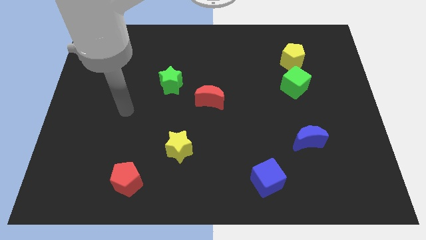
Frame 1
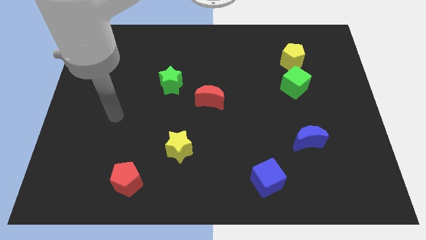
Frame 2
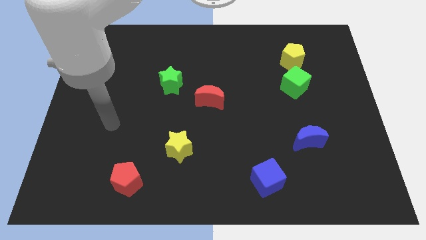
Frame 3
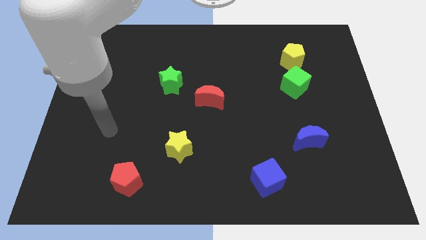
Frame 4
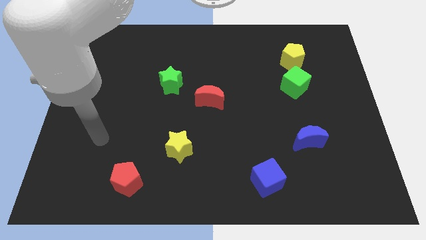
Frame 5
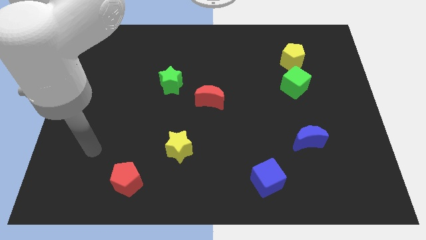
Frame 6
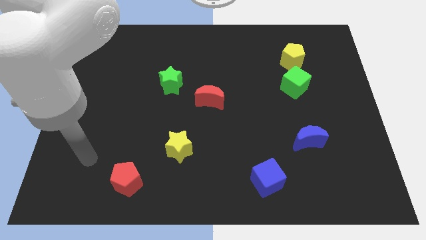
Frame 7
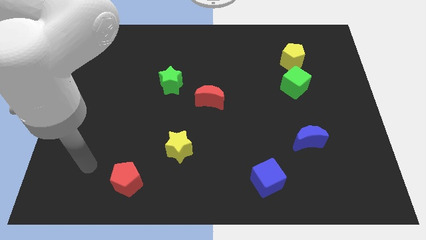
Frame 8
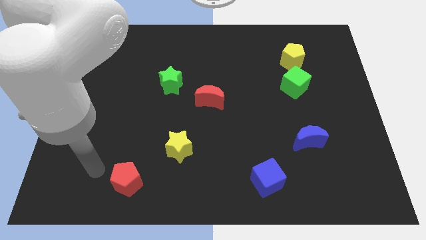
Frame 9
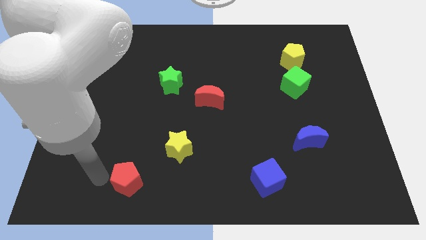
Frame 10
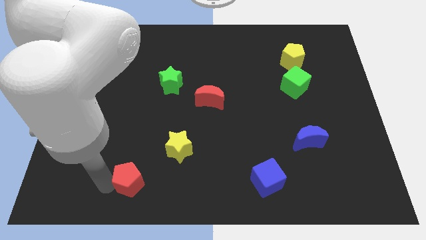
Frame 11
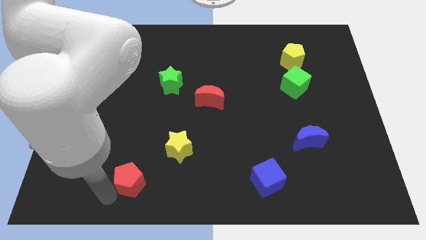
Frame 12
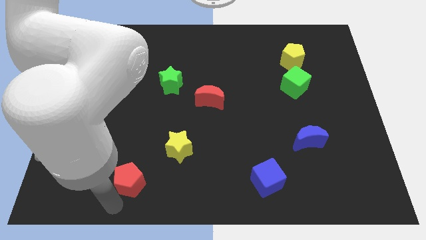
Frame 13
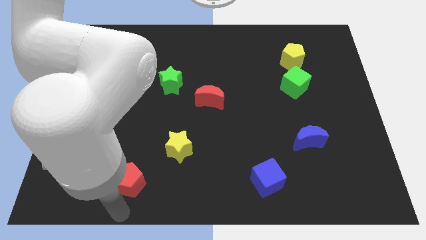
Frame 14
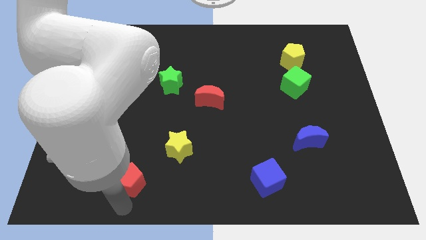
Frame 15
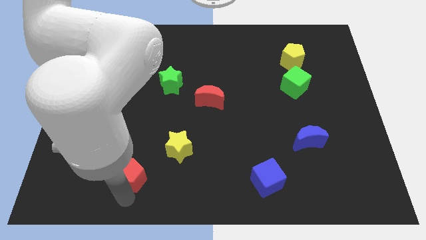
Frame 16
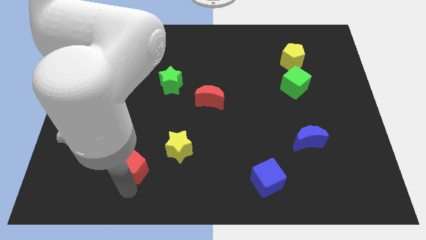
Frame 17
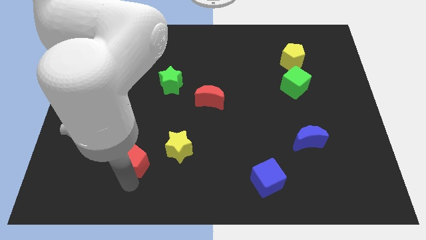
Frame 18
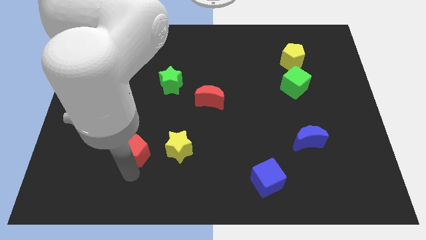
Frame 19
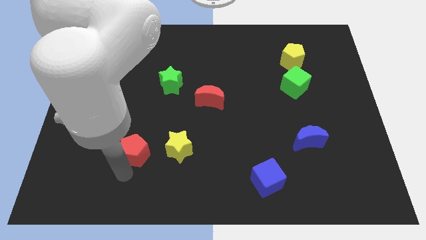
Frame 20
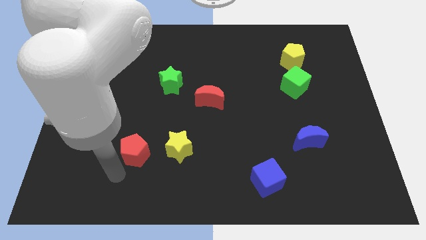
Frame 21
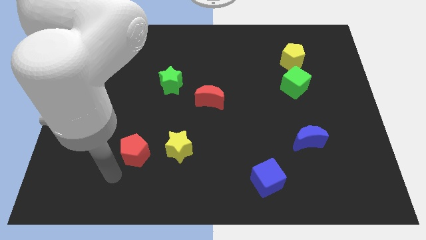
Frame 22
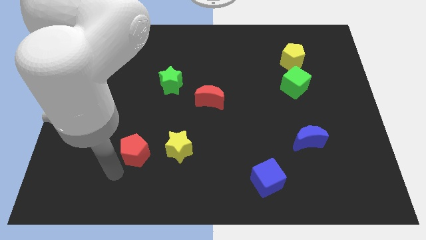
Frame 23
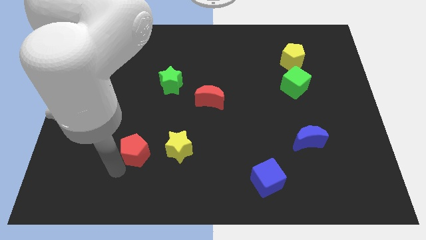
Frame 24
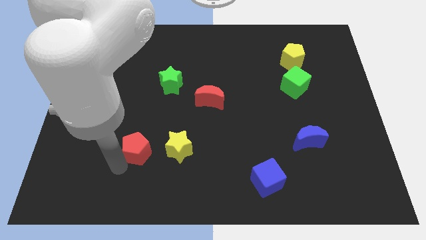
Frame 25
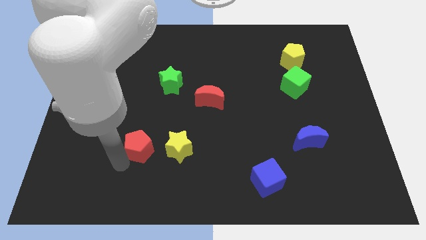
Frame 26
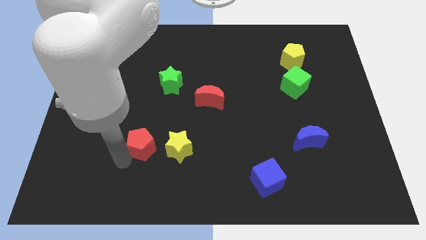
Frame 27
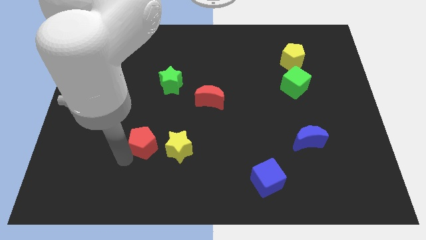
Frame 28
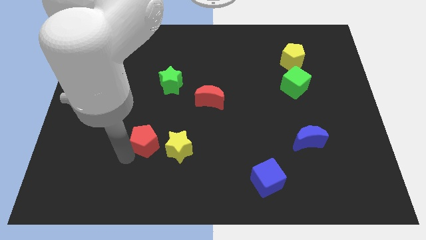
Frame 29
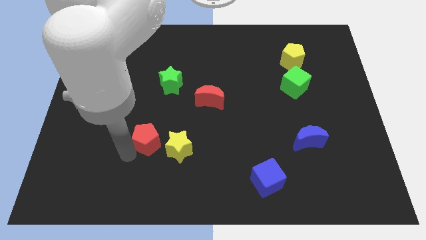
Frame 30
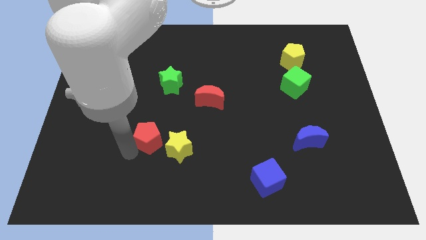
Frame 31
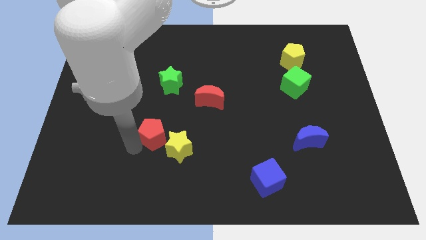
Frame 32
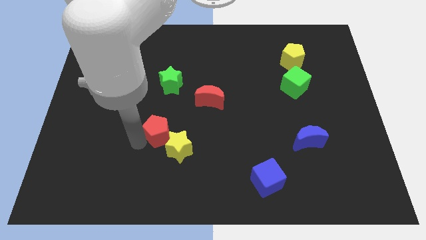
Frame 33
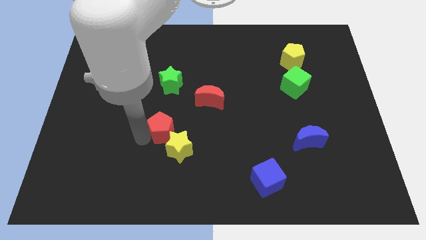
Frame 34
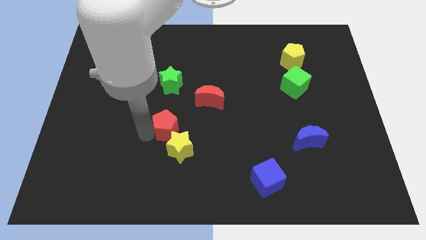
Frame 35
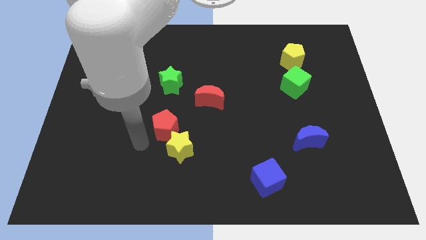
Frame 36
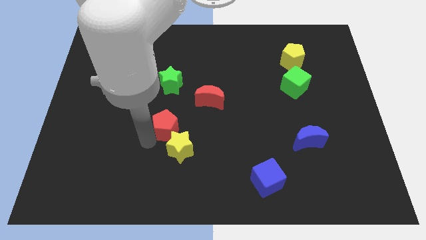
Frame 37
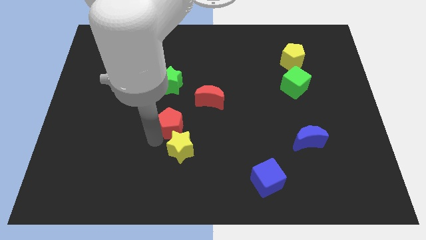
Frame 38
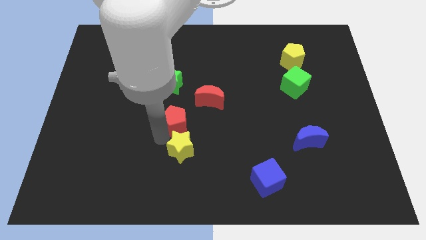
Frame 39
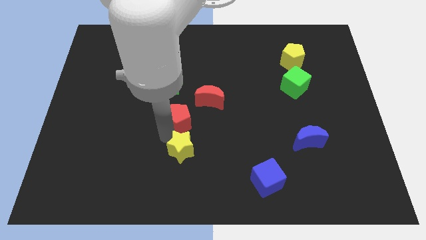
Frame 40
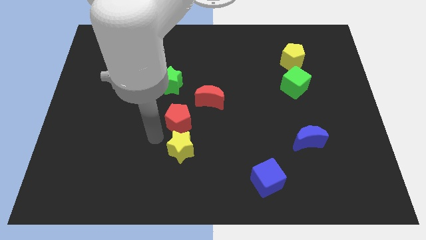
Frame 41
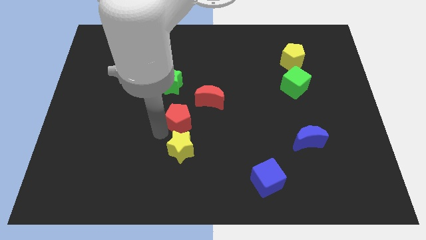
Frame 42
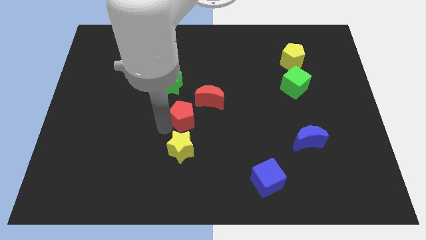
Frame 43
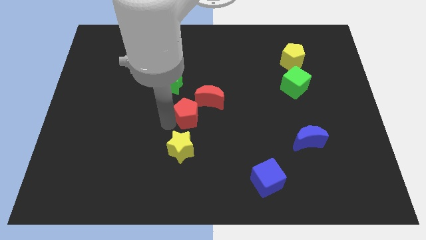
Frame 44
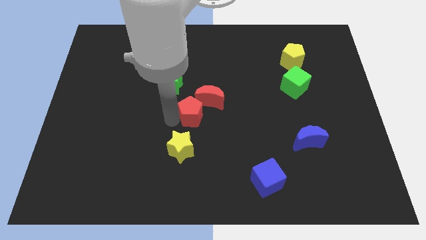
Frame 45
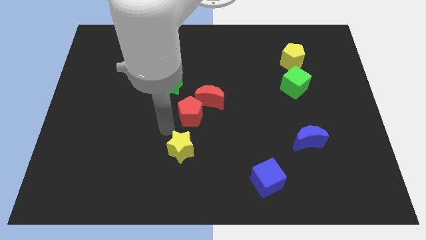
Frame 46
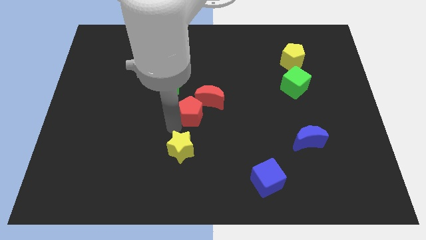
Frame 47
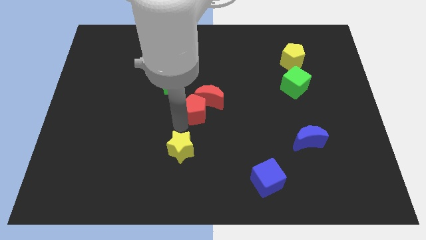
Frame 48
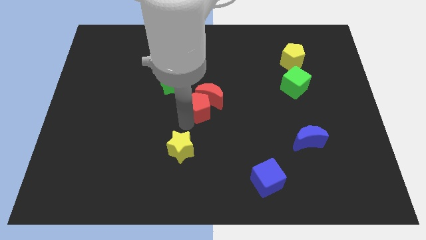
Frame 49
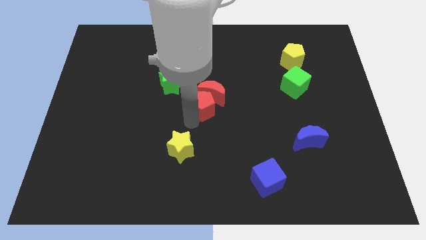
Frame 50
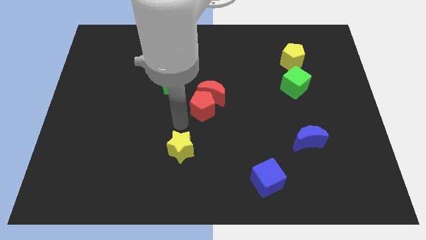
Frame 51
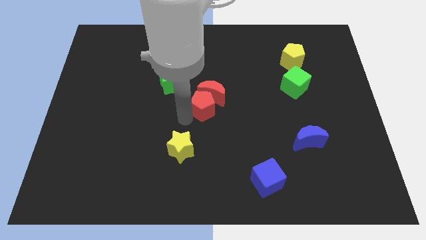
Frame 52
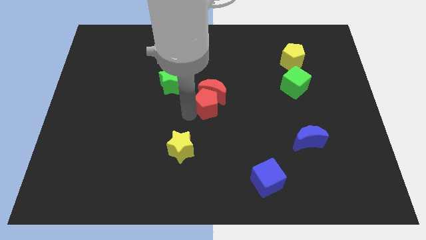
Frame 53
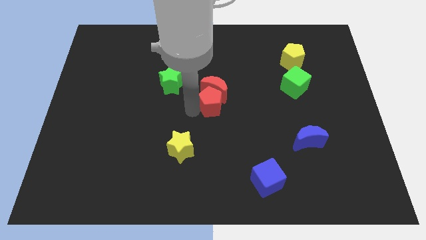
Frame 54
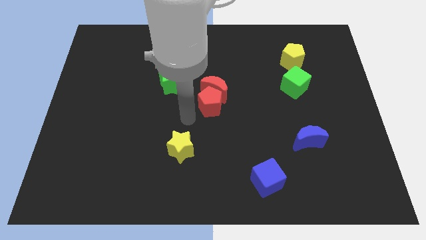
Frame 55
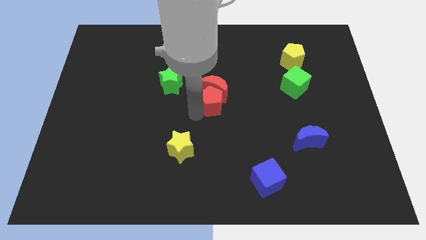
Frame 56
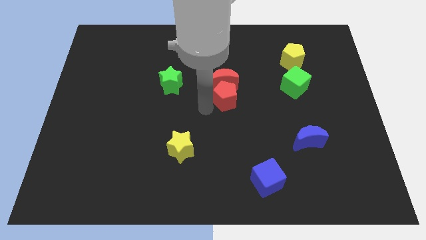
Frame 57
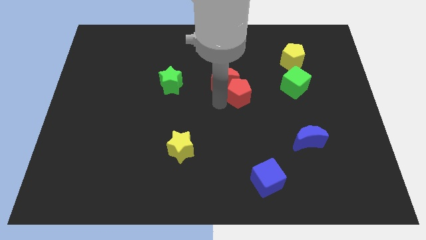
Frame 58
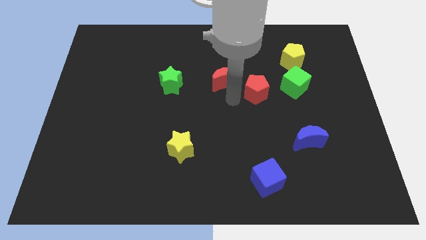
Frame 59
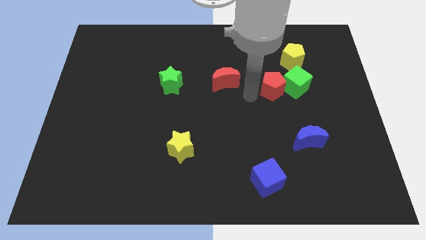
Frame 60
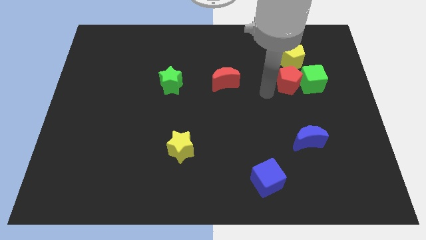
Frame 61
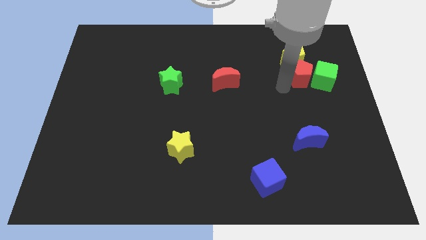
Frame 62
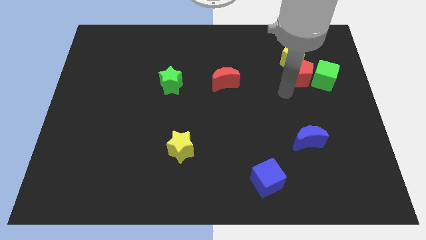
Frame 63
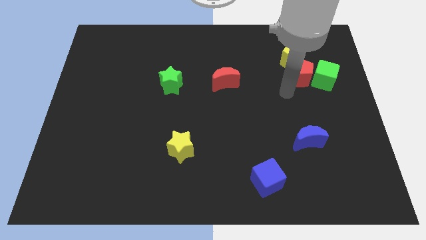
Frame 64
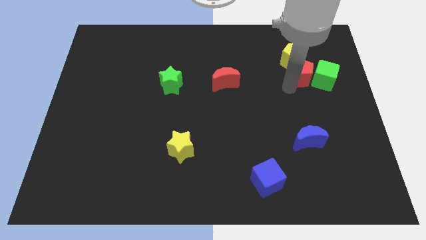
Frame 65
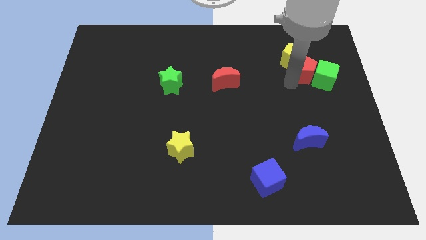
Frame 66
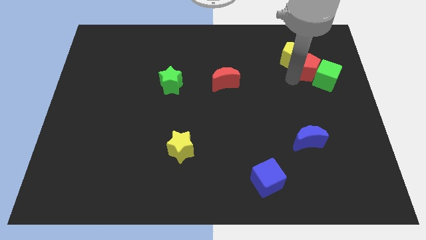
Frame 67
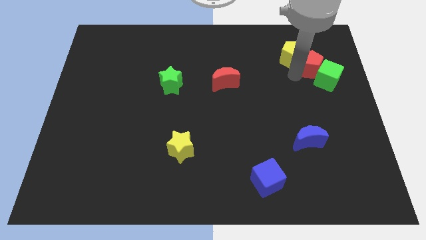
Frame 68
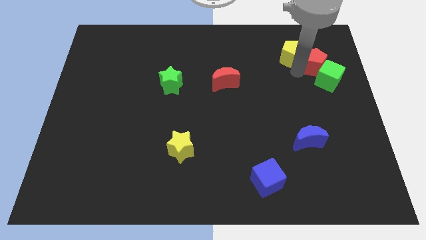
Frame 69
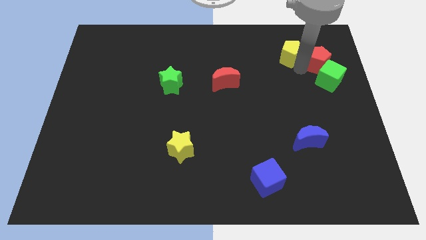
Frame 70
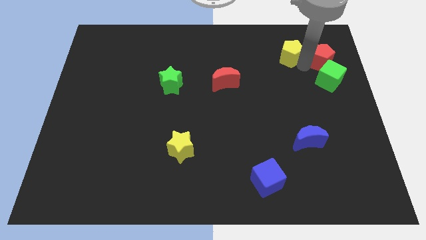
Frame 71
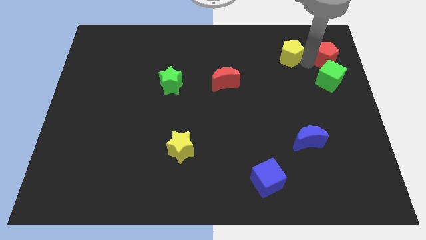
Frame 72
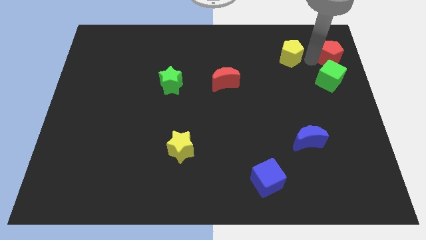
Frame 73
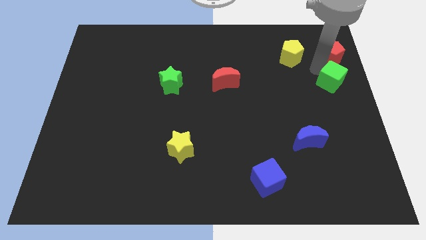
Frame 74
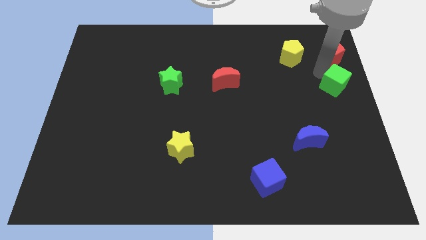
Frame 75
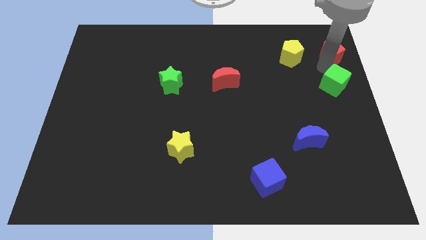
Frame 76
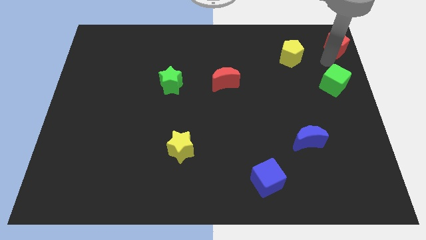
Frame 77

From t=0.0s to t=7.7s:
put the red pentagon to the upper right corner
